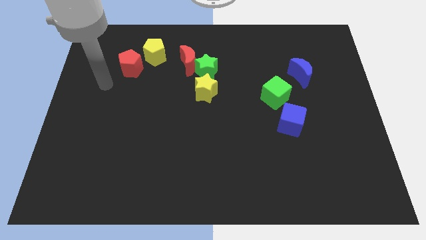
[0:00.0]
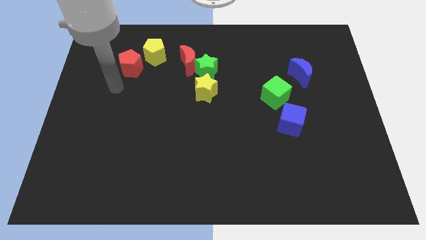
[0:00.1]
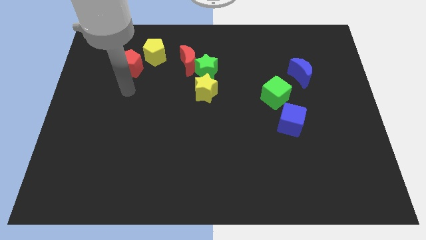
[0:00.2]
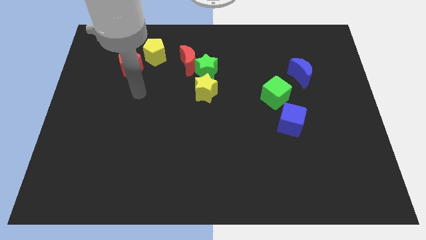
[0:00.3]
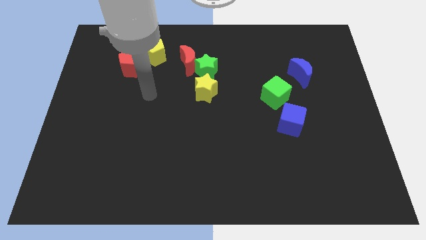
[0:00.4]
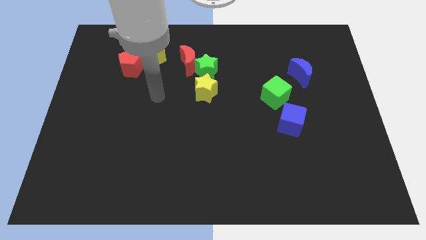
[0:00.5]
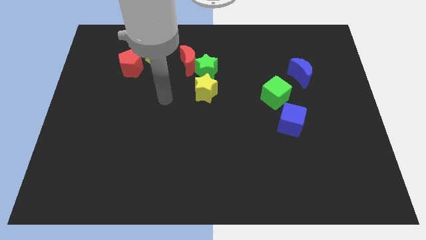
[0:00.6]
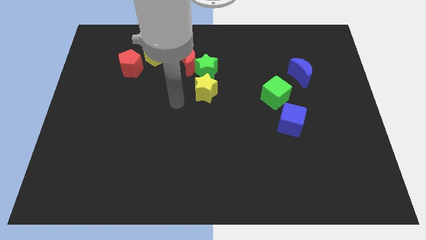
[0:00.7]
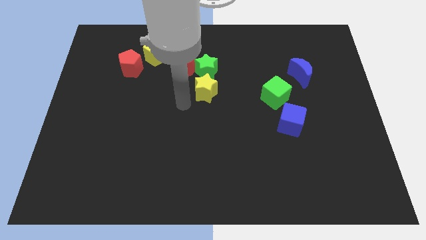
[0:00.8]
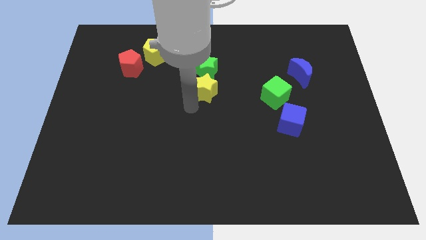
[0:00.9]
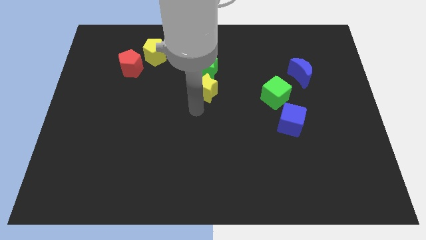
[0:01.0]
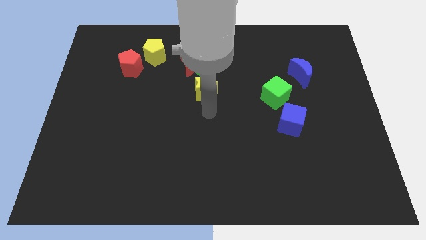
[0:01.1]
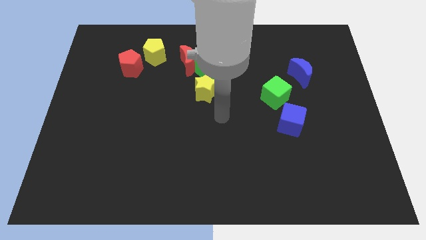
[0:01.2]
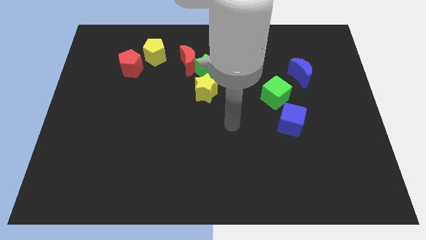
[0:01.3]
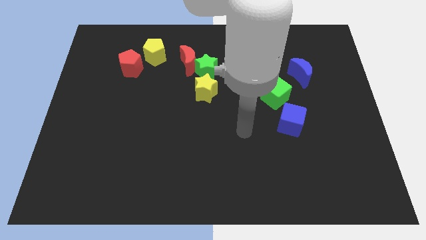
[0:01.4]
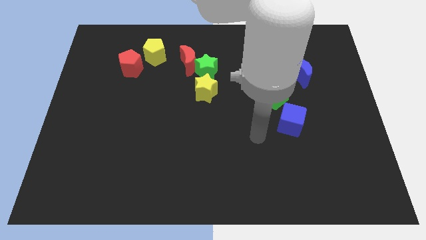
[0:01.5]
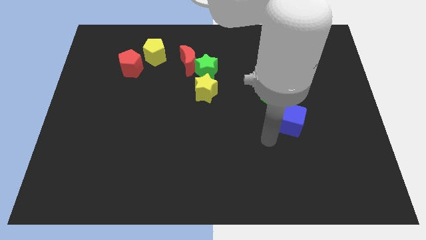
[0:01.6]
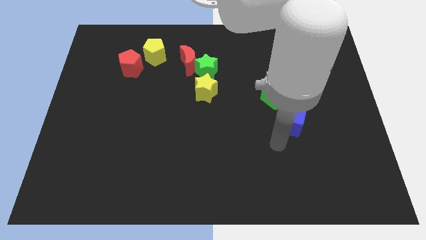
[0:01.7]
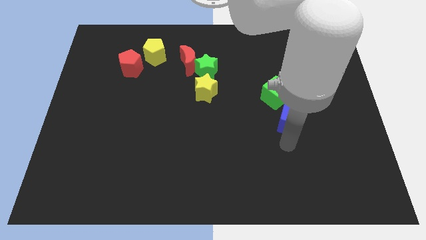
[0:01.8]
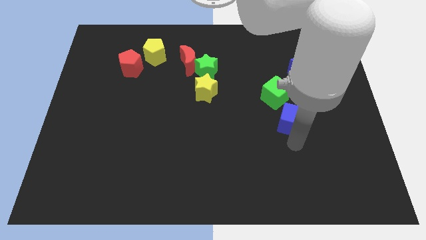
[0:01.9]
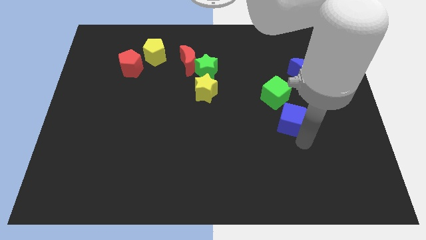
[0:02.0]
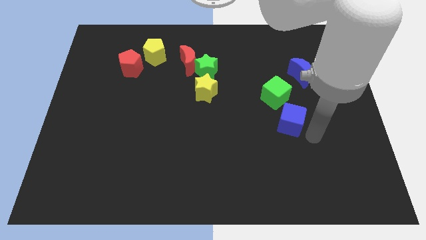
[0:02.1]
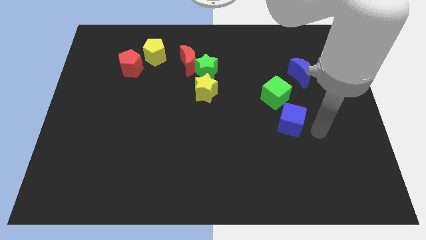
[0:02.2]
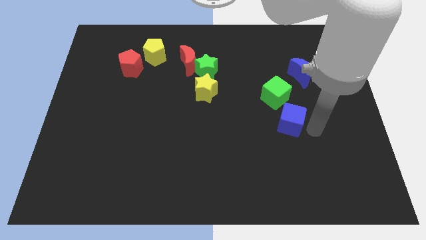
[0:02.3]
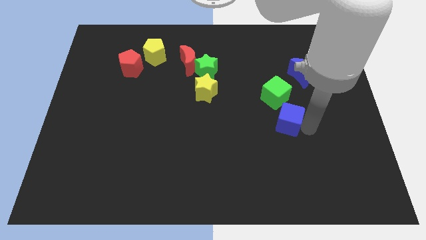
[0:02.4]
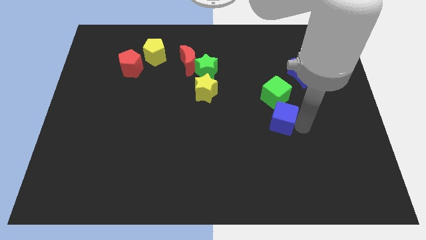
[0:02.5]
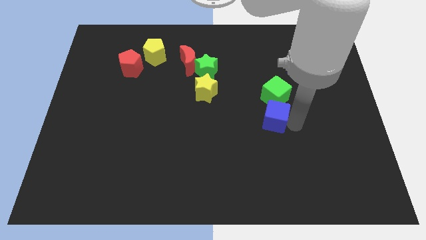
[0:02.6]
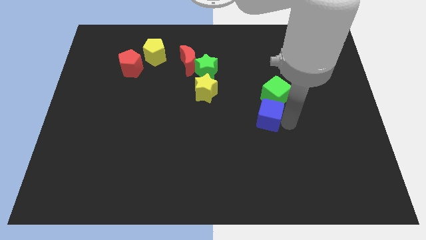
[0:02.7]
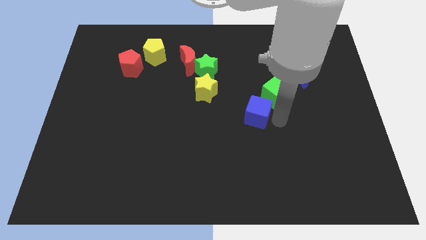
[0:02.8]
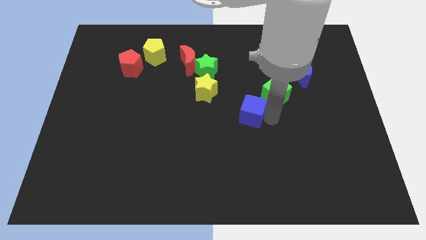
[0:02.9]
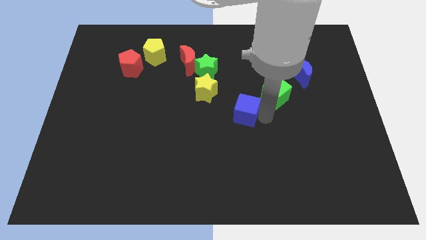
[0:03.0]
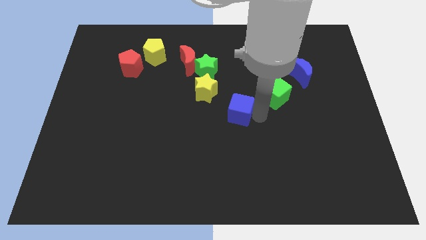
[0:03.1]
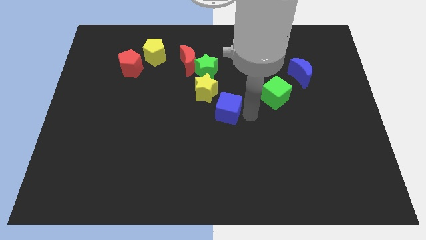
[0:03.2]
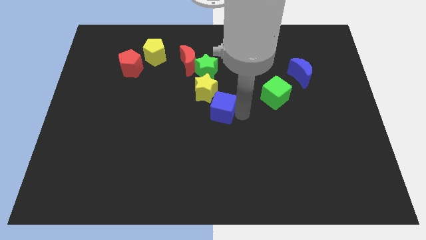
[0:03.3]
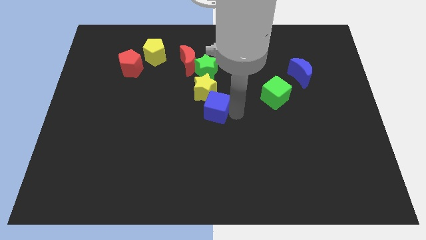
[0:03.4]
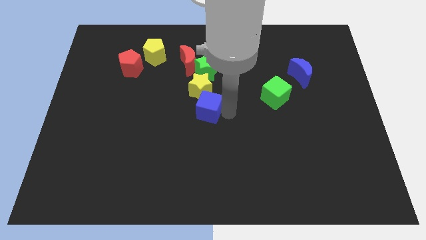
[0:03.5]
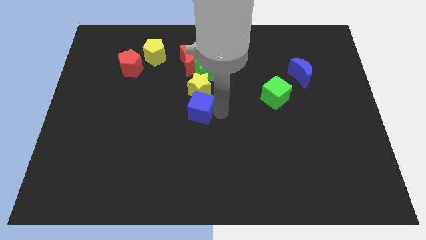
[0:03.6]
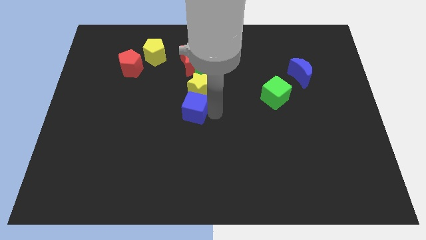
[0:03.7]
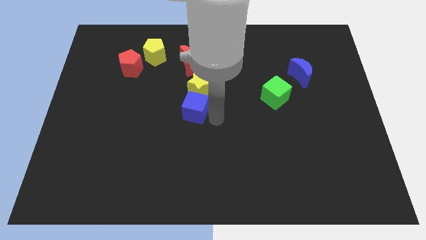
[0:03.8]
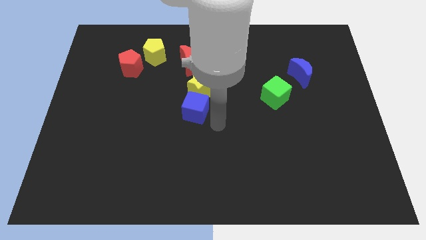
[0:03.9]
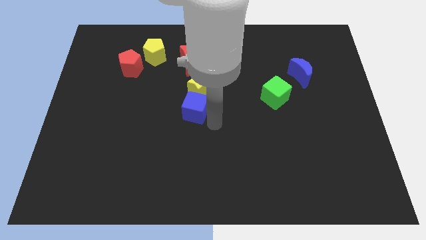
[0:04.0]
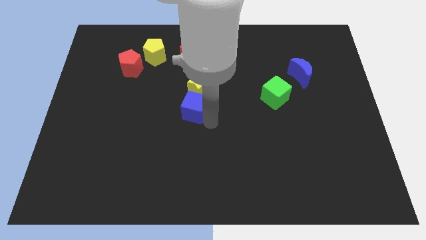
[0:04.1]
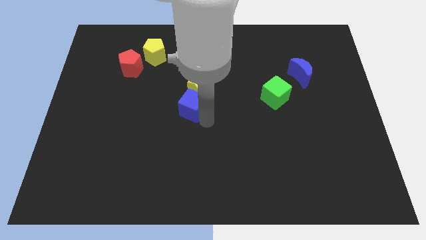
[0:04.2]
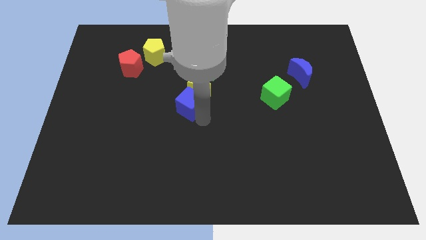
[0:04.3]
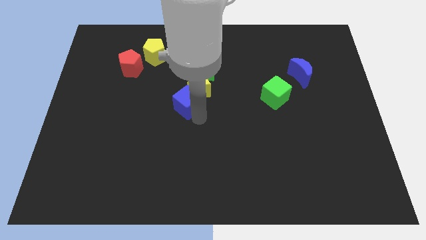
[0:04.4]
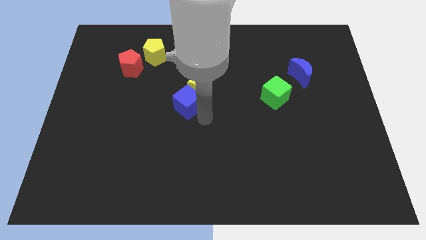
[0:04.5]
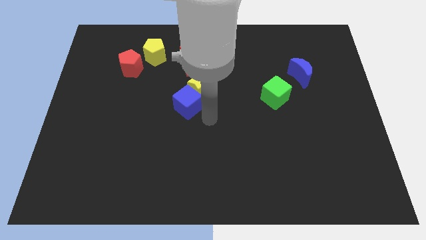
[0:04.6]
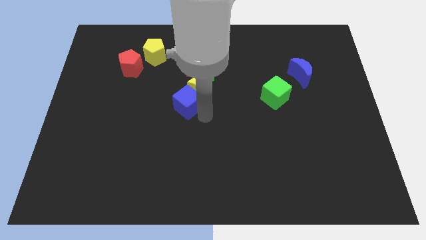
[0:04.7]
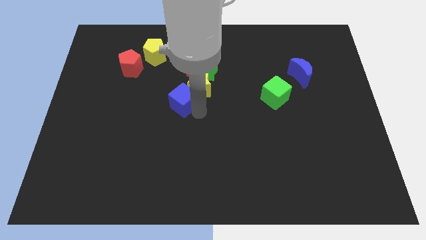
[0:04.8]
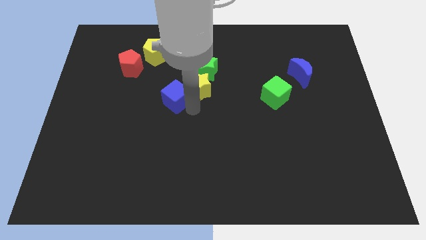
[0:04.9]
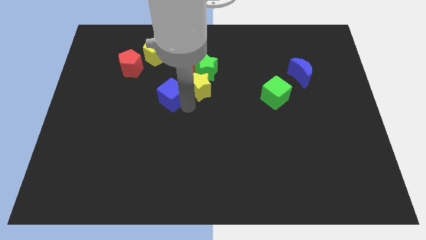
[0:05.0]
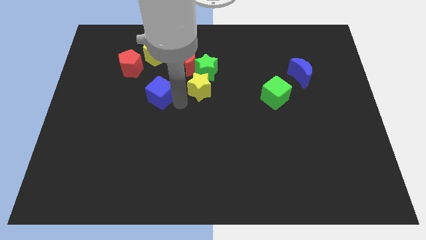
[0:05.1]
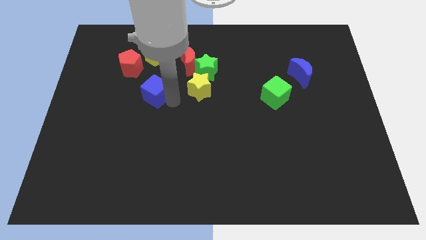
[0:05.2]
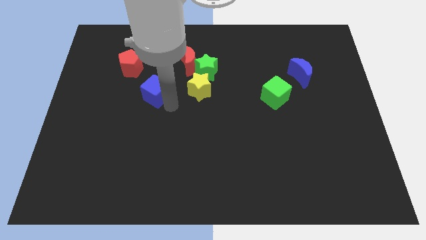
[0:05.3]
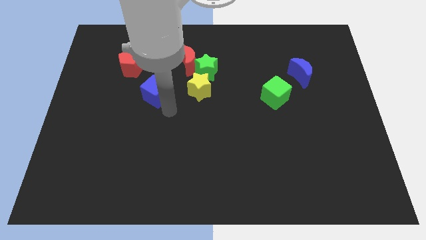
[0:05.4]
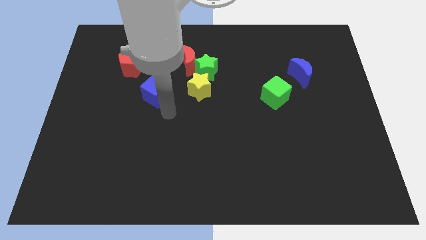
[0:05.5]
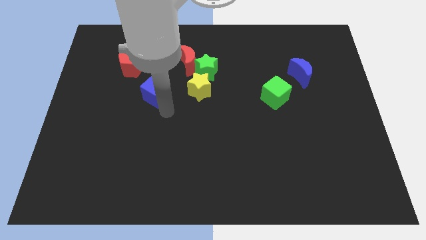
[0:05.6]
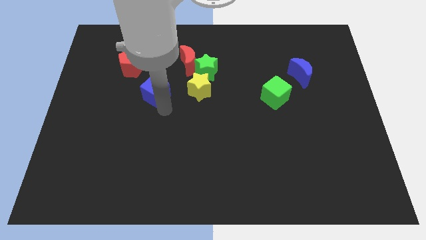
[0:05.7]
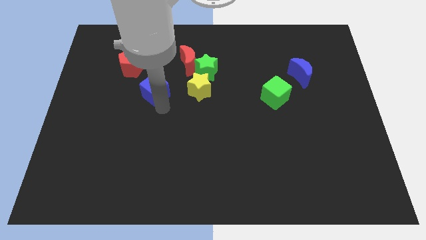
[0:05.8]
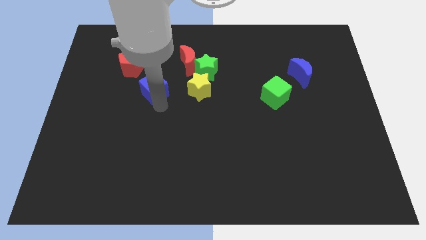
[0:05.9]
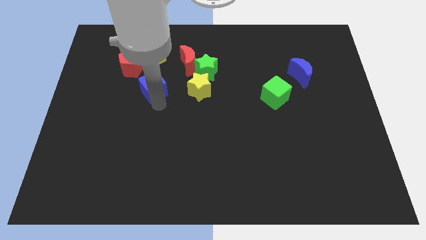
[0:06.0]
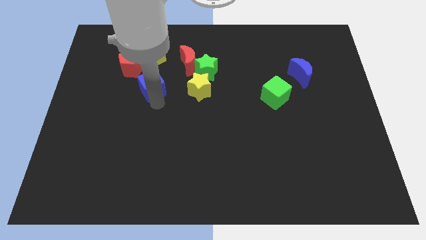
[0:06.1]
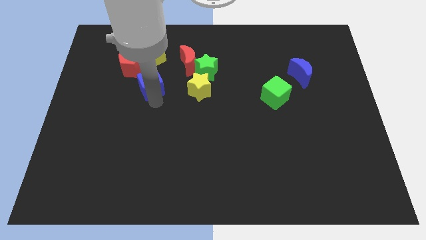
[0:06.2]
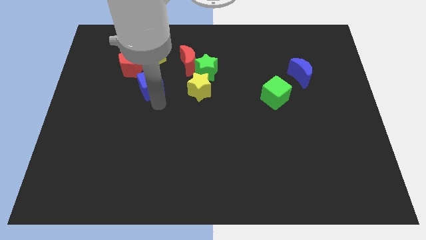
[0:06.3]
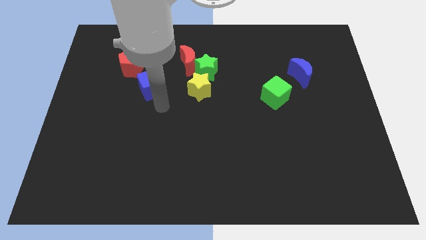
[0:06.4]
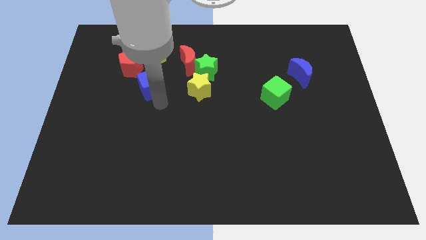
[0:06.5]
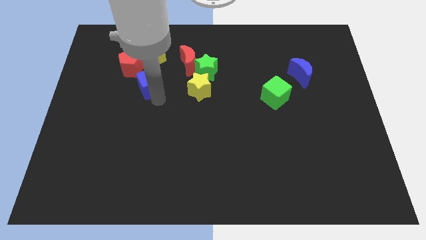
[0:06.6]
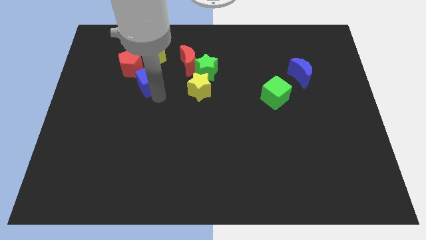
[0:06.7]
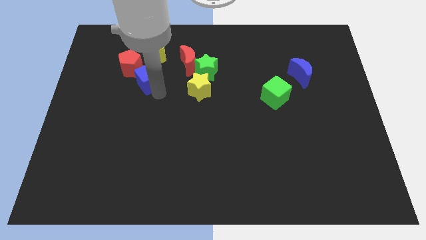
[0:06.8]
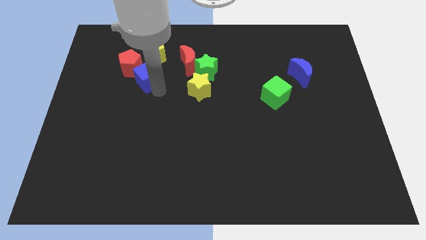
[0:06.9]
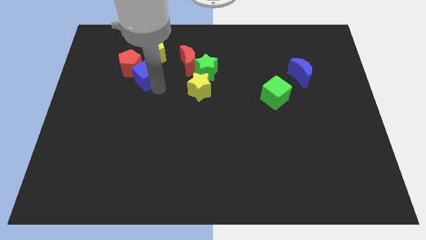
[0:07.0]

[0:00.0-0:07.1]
move the blue cube close to the red pentagon
